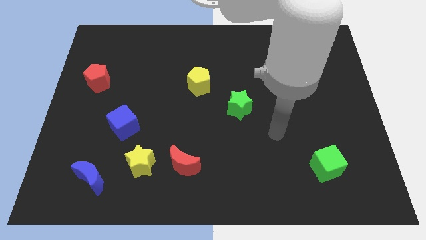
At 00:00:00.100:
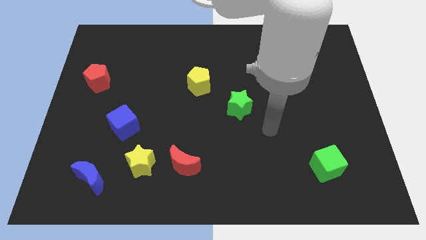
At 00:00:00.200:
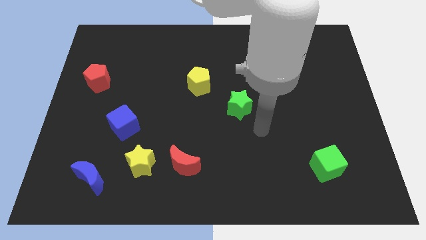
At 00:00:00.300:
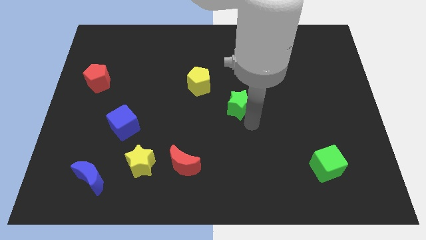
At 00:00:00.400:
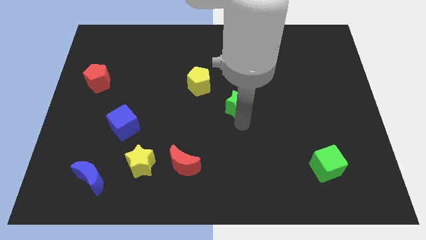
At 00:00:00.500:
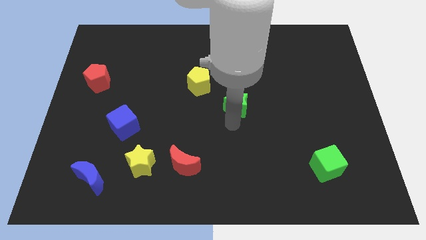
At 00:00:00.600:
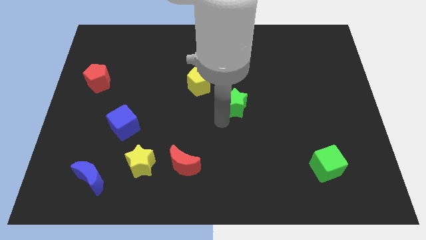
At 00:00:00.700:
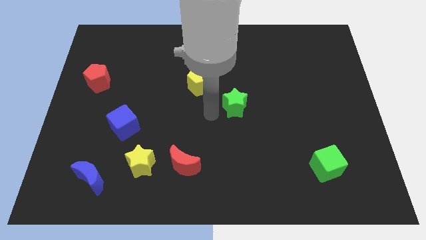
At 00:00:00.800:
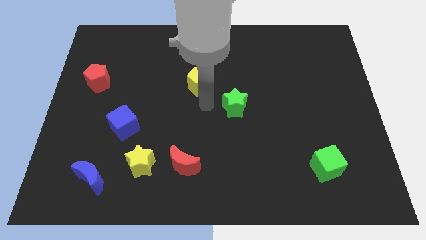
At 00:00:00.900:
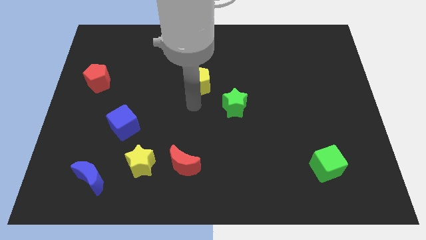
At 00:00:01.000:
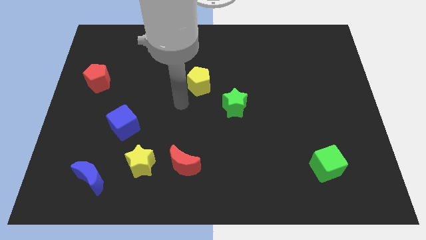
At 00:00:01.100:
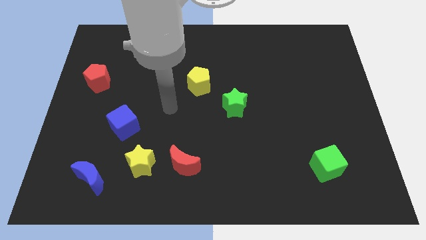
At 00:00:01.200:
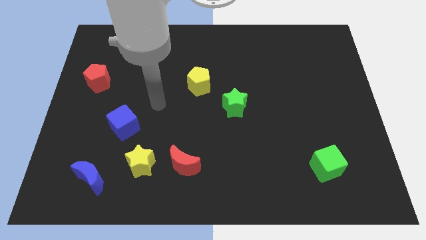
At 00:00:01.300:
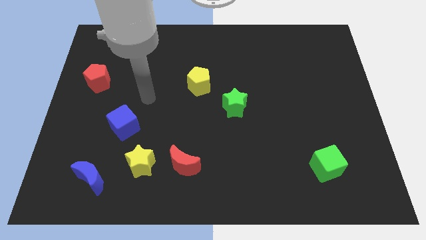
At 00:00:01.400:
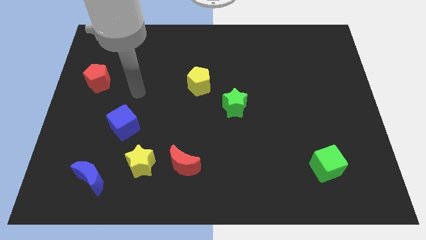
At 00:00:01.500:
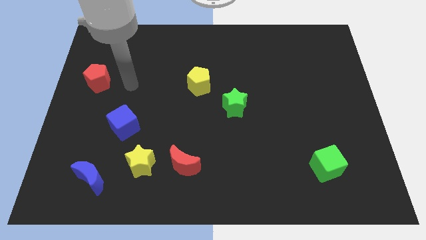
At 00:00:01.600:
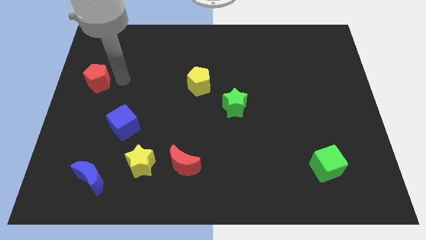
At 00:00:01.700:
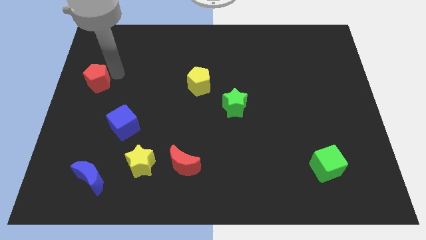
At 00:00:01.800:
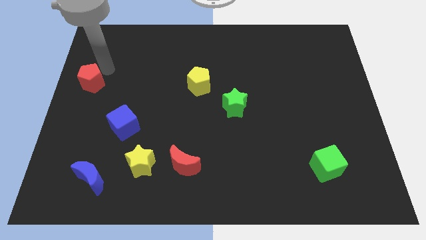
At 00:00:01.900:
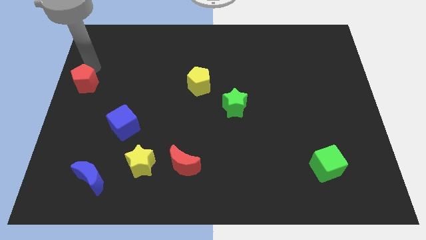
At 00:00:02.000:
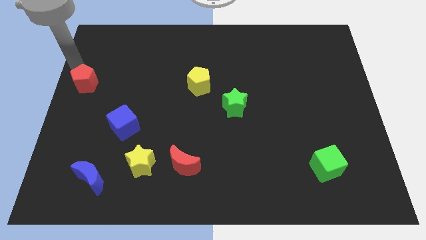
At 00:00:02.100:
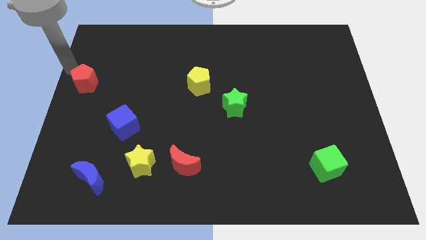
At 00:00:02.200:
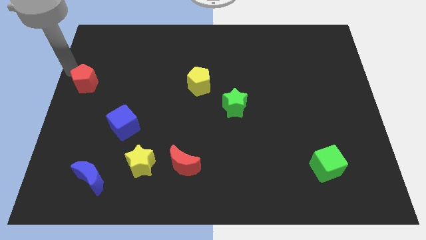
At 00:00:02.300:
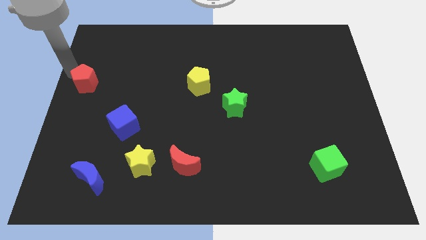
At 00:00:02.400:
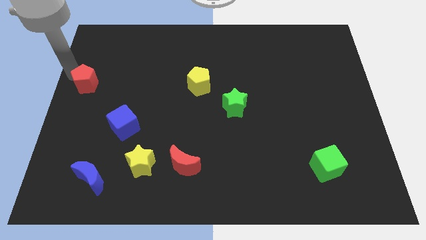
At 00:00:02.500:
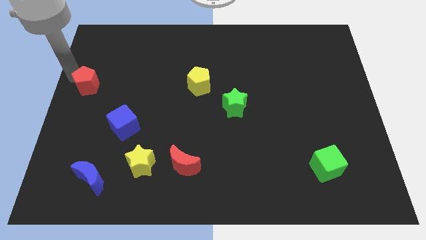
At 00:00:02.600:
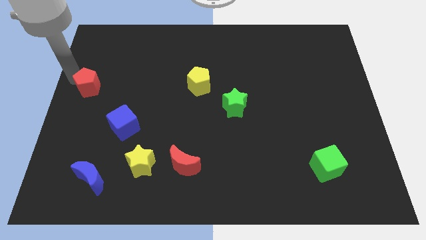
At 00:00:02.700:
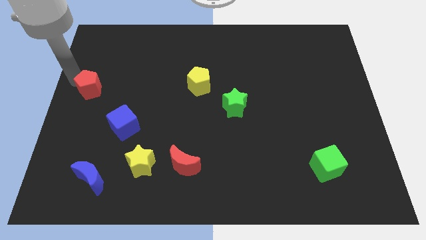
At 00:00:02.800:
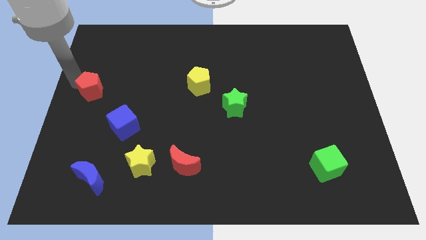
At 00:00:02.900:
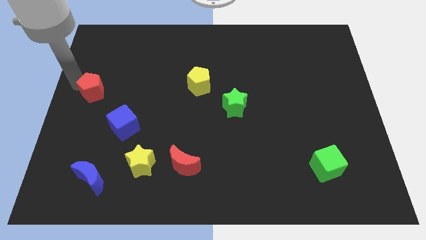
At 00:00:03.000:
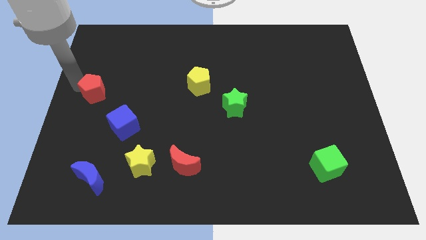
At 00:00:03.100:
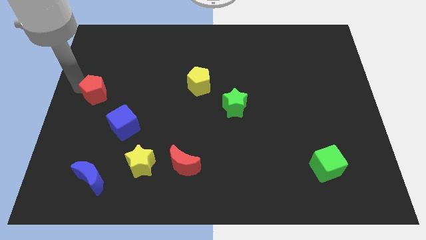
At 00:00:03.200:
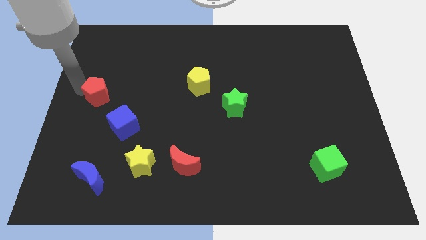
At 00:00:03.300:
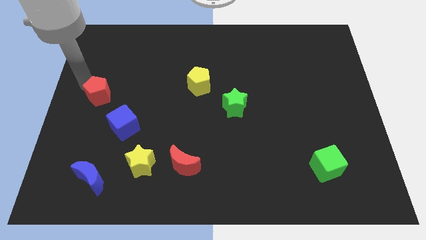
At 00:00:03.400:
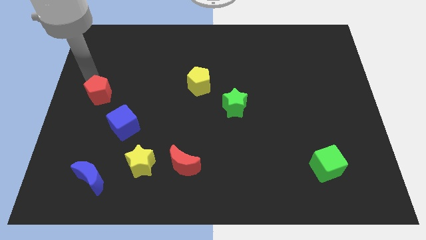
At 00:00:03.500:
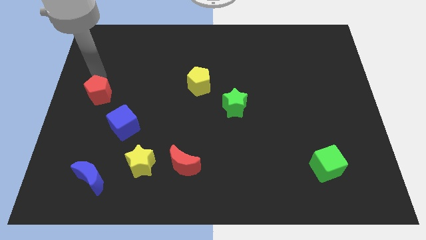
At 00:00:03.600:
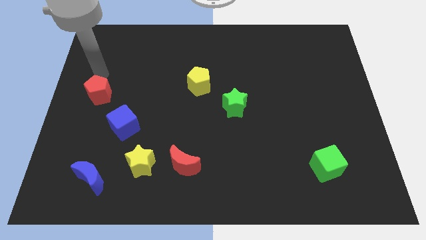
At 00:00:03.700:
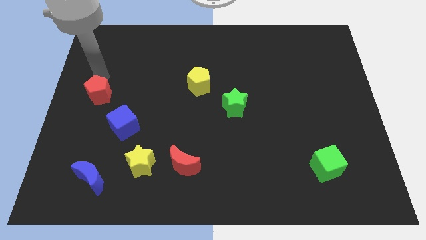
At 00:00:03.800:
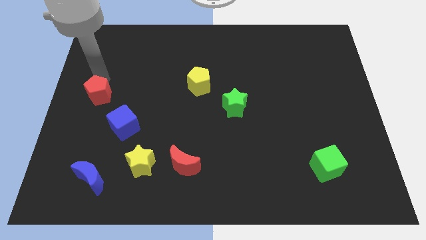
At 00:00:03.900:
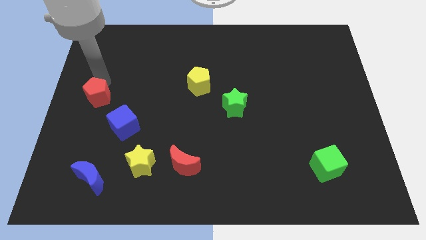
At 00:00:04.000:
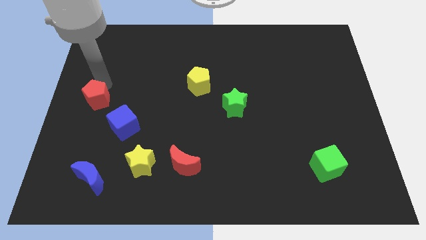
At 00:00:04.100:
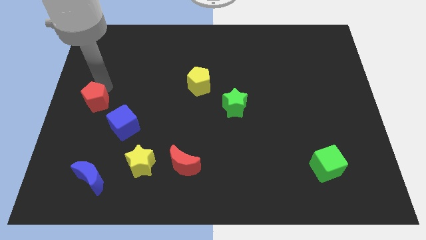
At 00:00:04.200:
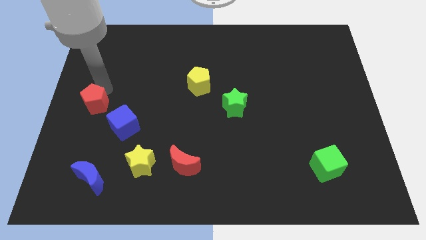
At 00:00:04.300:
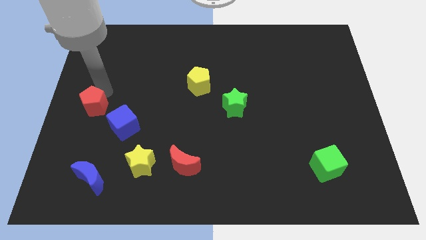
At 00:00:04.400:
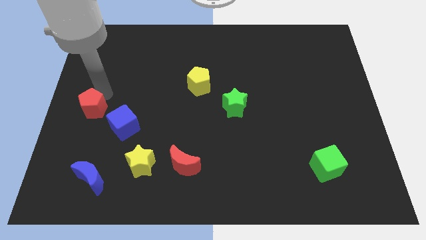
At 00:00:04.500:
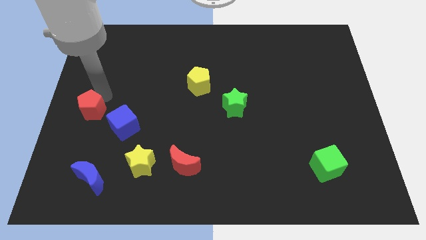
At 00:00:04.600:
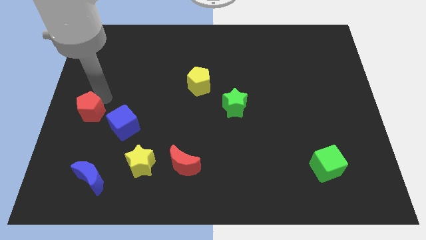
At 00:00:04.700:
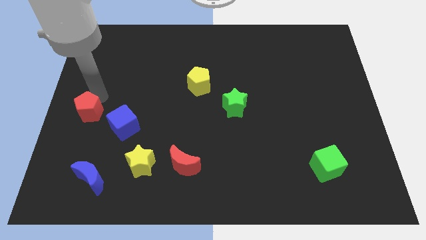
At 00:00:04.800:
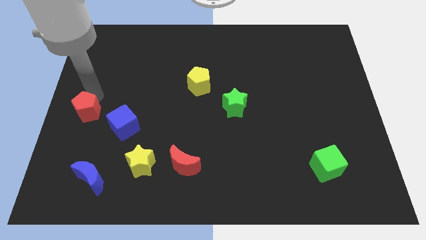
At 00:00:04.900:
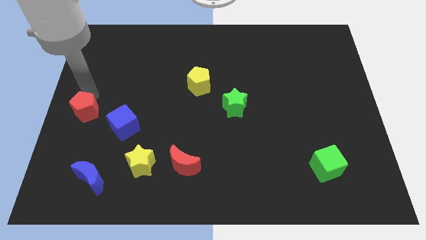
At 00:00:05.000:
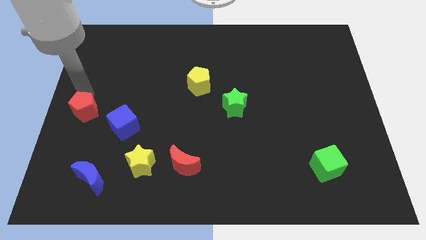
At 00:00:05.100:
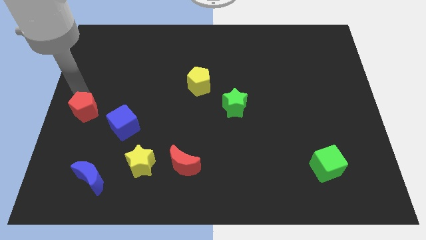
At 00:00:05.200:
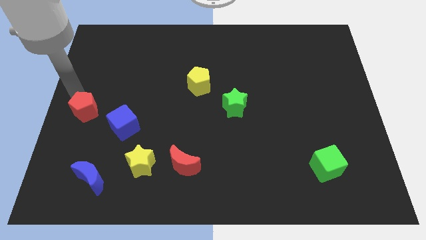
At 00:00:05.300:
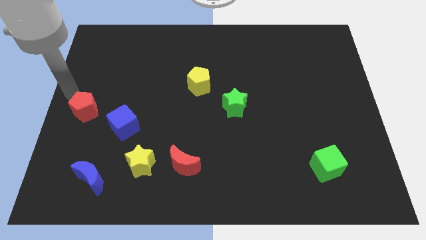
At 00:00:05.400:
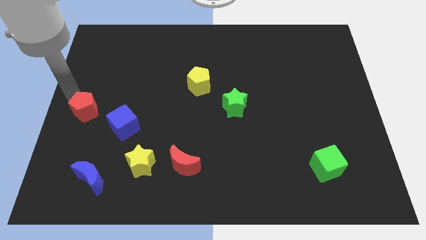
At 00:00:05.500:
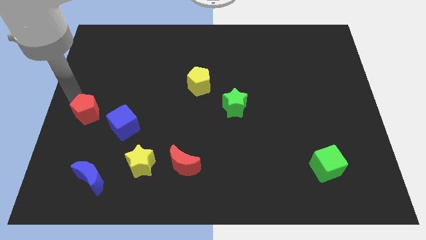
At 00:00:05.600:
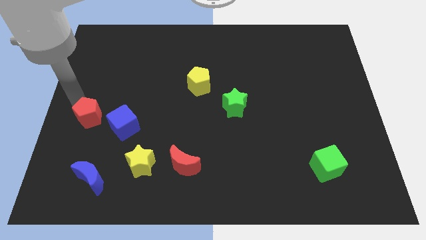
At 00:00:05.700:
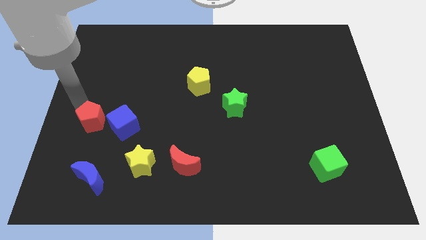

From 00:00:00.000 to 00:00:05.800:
put the red pentagon to the top of the blue moon
